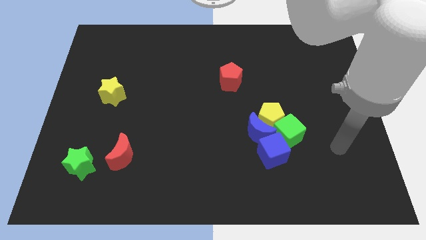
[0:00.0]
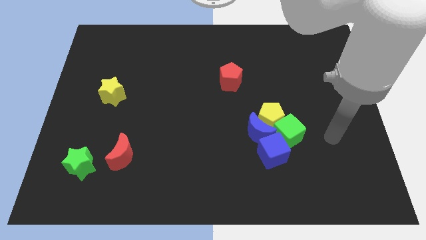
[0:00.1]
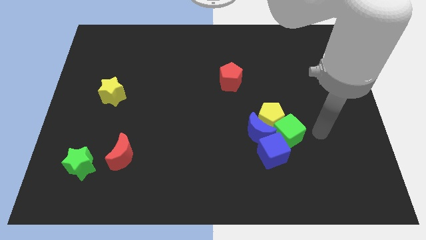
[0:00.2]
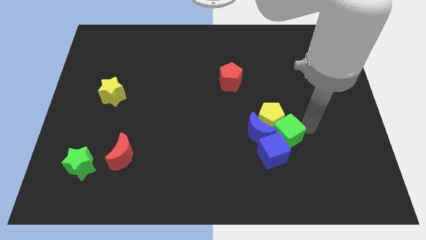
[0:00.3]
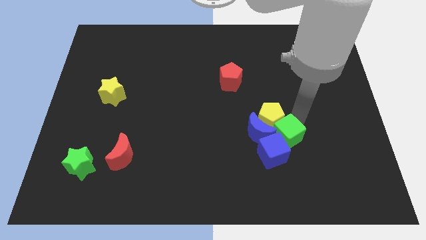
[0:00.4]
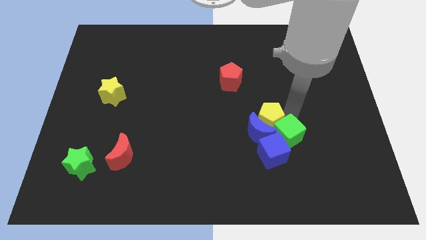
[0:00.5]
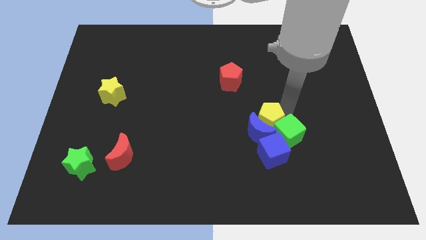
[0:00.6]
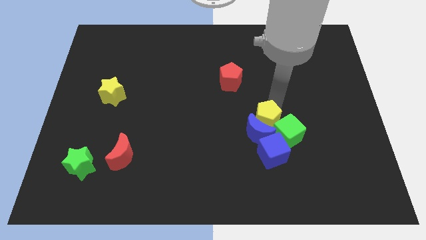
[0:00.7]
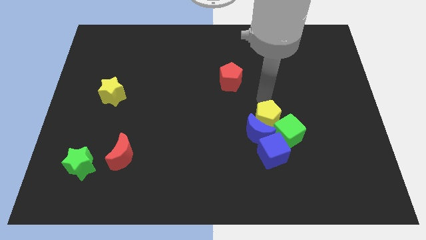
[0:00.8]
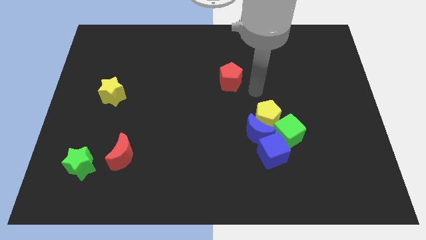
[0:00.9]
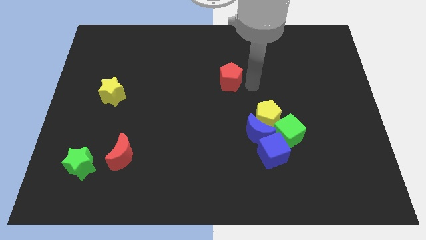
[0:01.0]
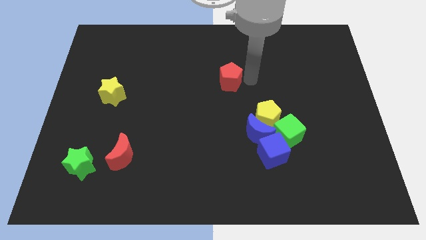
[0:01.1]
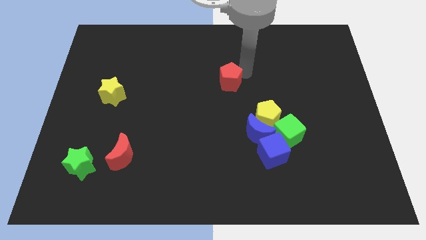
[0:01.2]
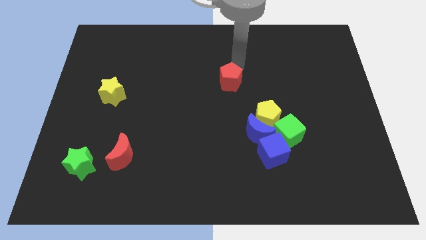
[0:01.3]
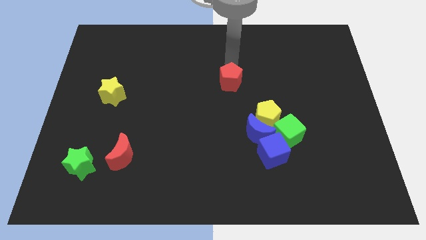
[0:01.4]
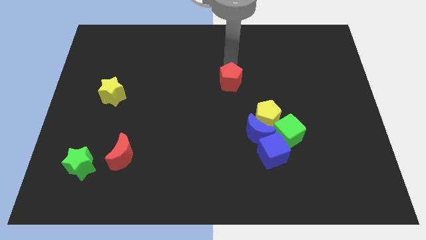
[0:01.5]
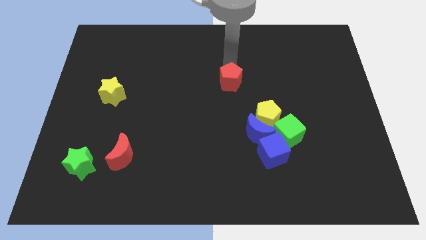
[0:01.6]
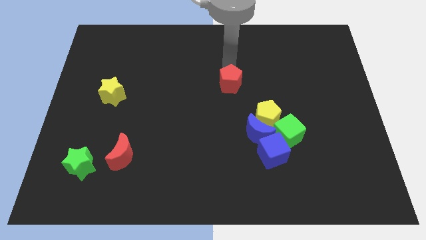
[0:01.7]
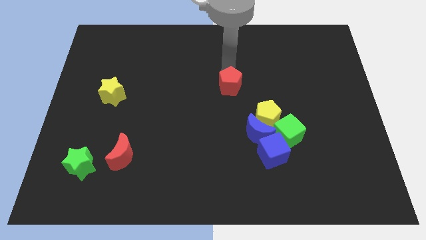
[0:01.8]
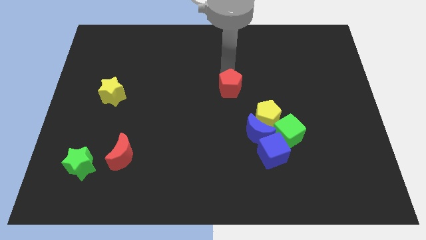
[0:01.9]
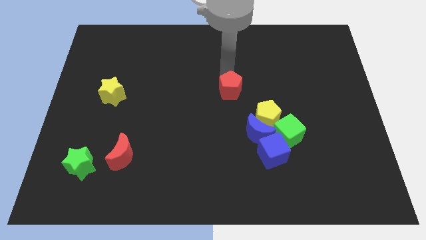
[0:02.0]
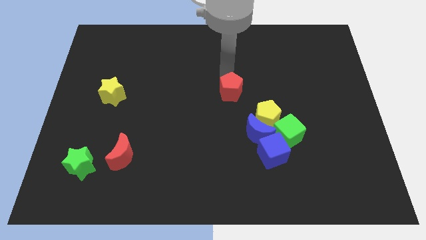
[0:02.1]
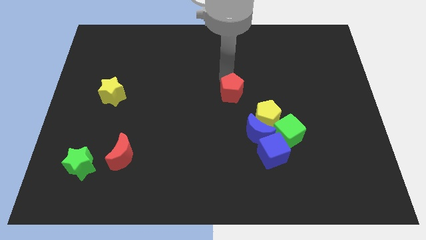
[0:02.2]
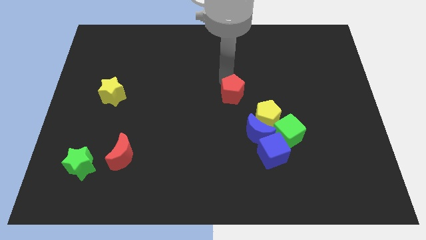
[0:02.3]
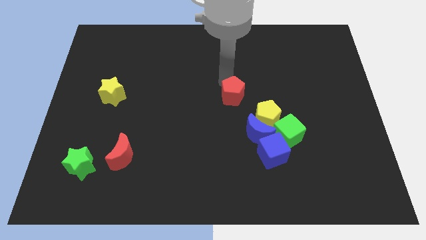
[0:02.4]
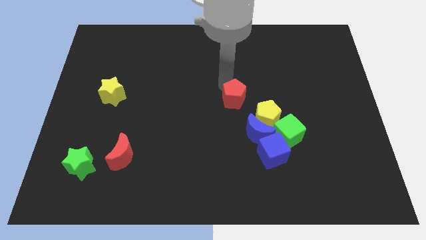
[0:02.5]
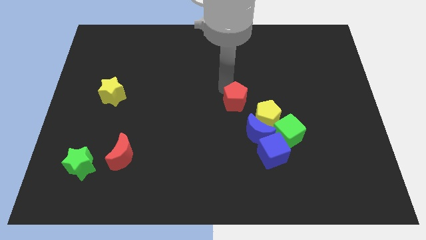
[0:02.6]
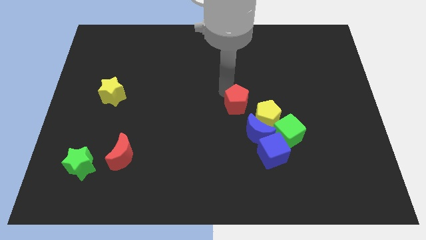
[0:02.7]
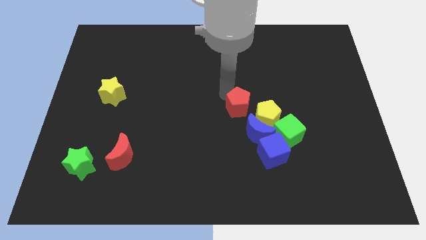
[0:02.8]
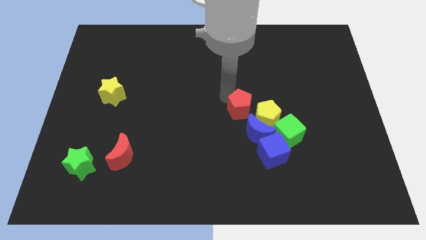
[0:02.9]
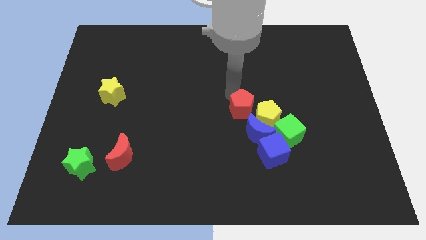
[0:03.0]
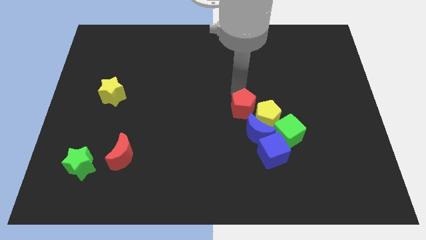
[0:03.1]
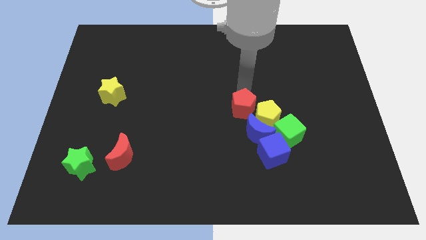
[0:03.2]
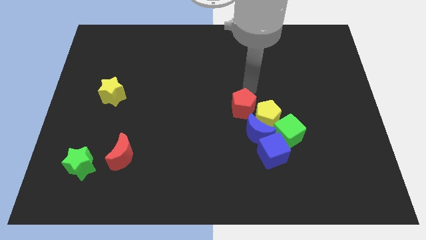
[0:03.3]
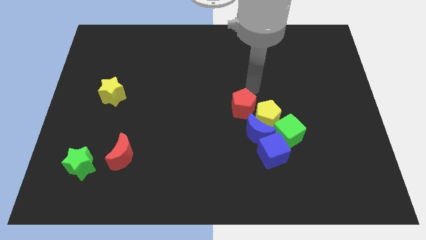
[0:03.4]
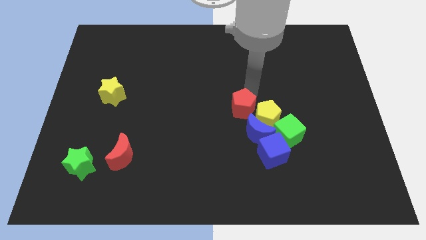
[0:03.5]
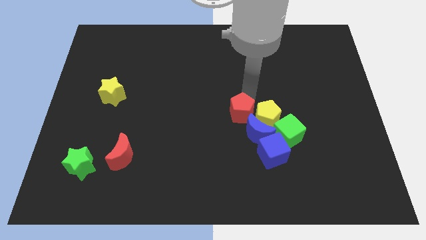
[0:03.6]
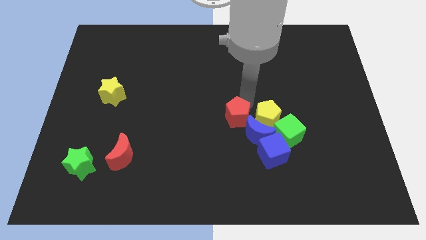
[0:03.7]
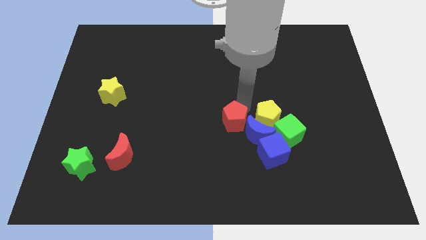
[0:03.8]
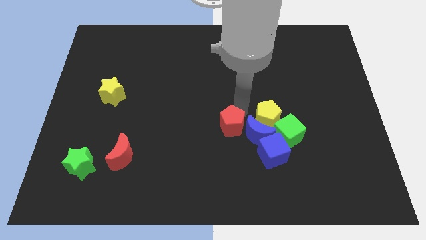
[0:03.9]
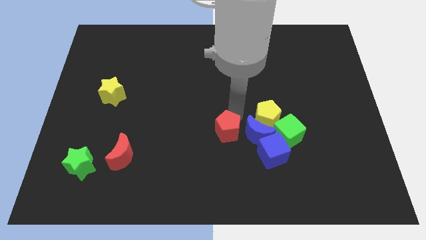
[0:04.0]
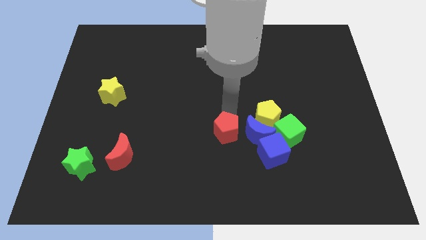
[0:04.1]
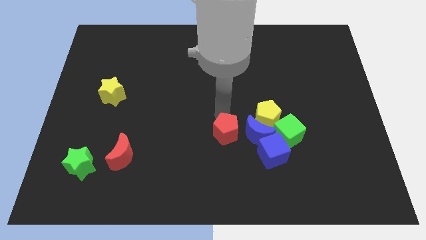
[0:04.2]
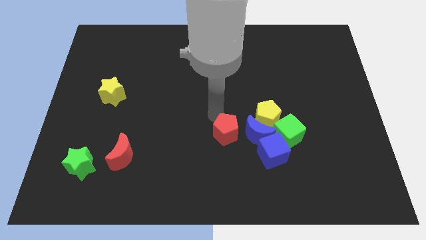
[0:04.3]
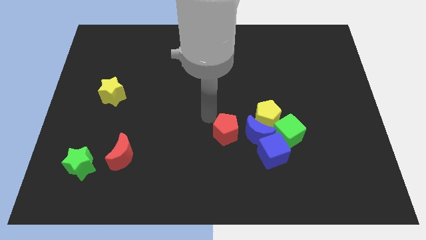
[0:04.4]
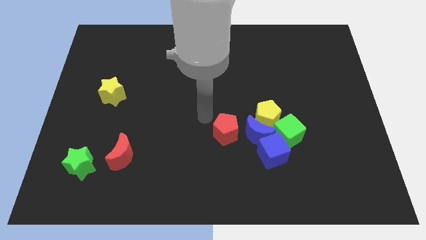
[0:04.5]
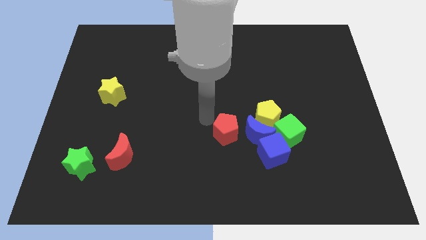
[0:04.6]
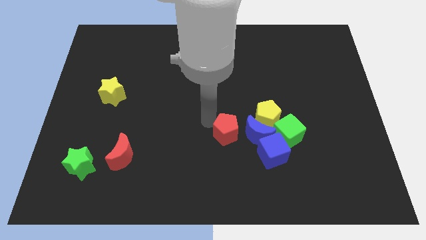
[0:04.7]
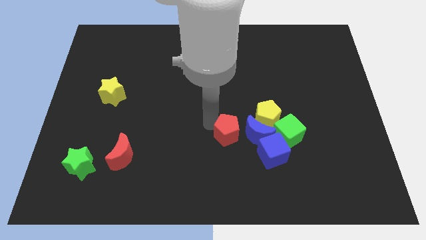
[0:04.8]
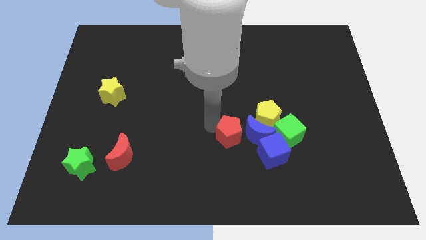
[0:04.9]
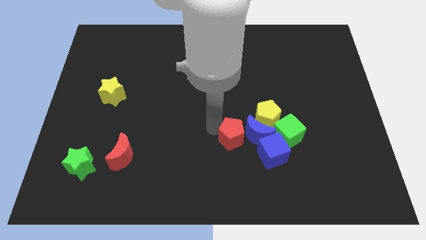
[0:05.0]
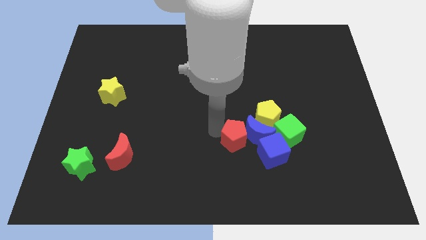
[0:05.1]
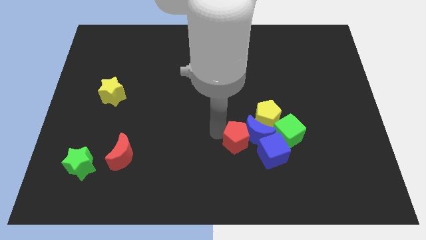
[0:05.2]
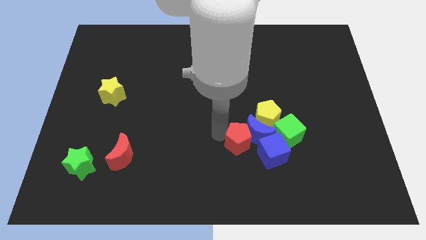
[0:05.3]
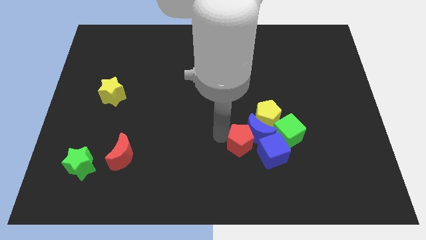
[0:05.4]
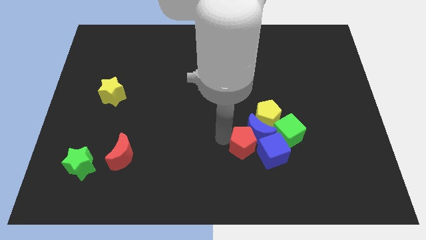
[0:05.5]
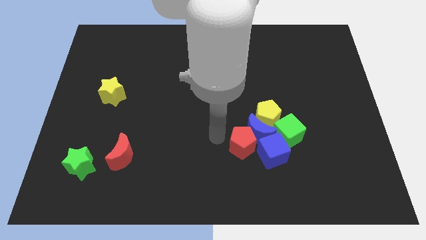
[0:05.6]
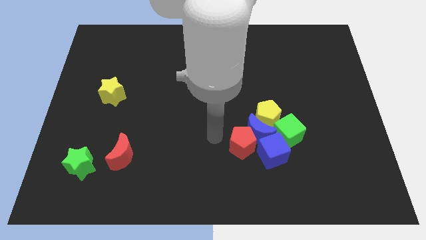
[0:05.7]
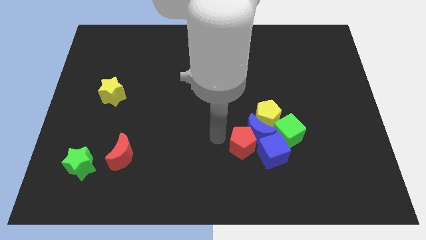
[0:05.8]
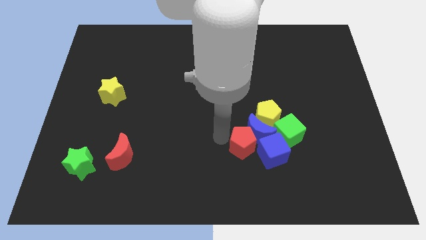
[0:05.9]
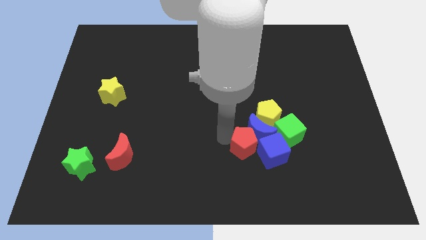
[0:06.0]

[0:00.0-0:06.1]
push the red pentagon to the blue cube

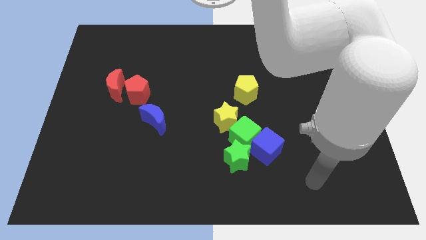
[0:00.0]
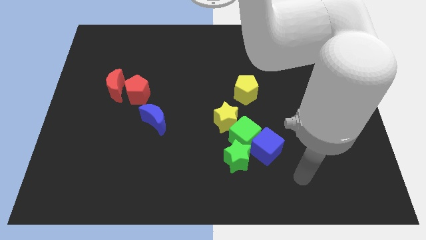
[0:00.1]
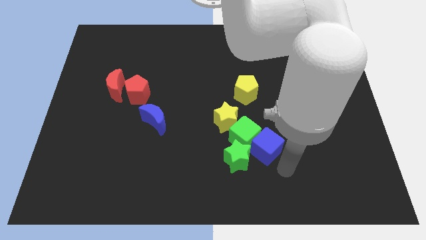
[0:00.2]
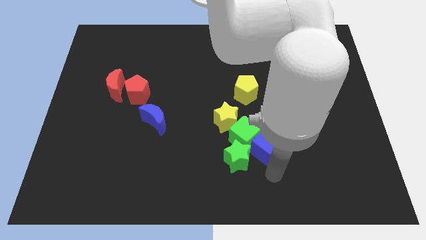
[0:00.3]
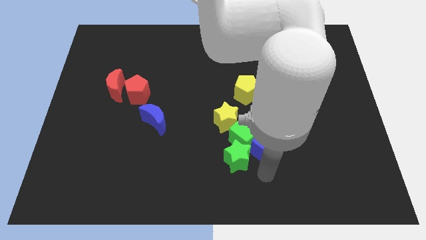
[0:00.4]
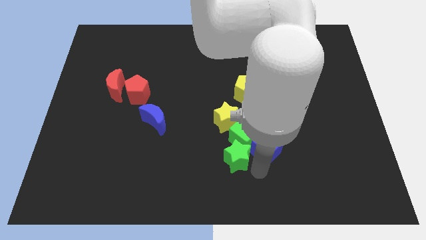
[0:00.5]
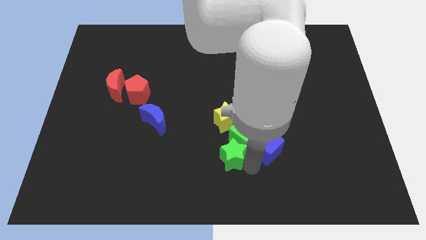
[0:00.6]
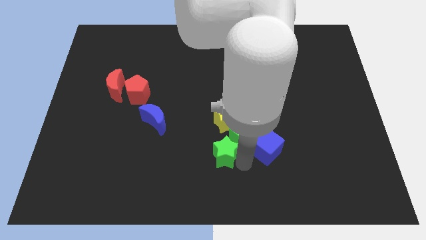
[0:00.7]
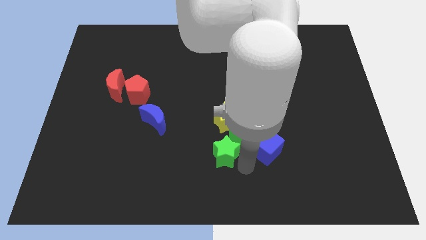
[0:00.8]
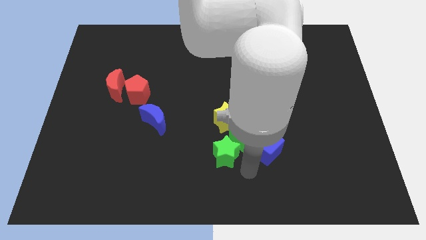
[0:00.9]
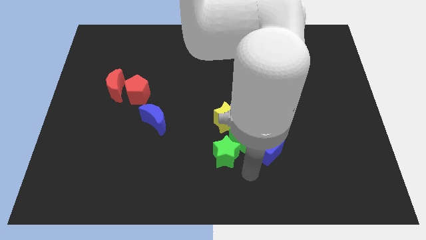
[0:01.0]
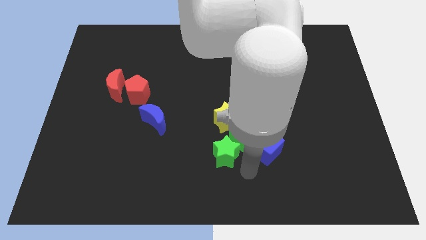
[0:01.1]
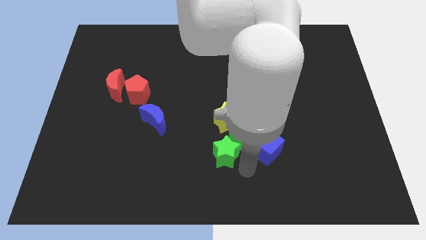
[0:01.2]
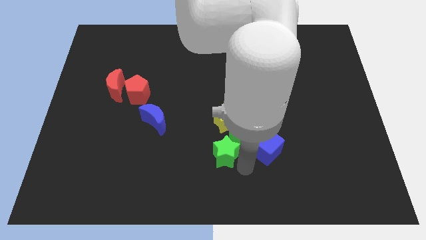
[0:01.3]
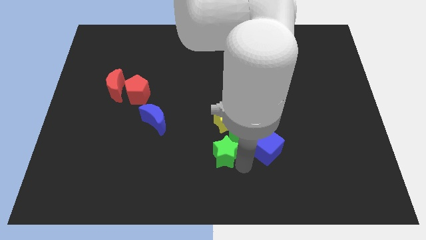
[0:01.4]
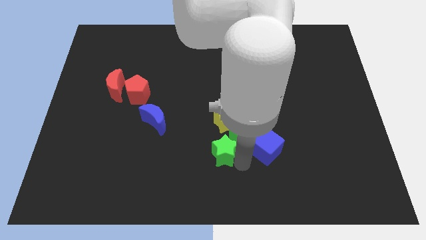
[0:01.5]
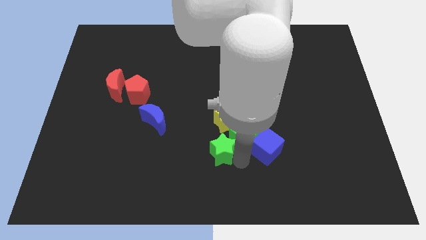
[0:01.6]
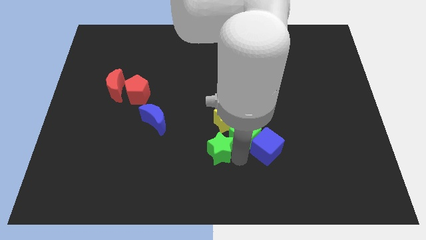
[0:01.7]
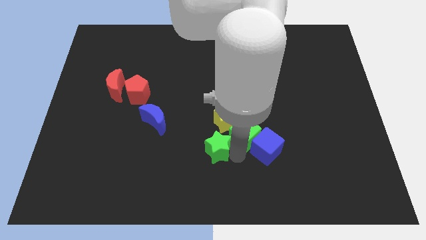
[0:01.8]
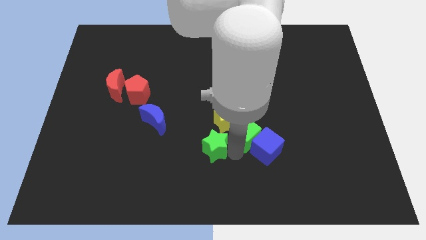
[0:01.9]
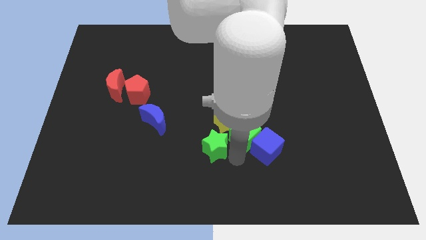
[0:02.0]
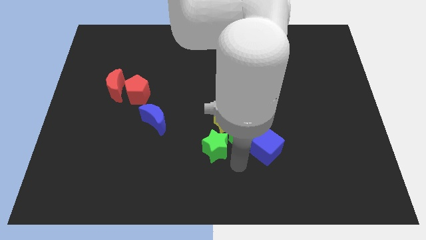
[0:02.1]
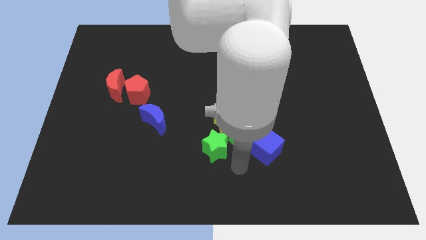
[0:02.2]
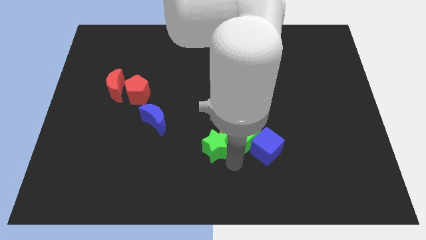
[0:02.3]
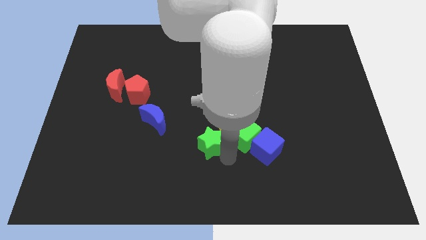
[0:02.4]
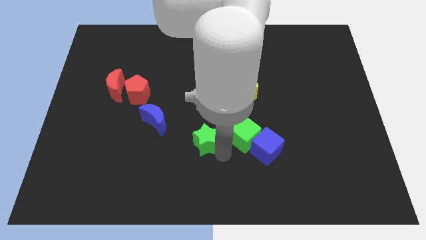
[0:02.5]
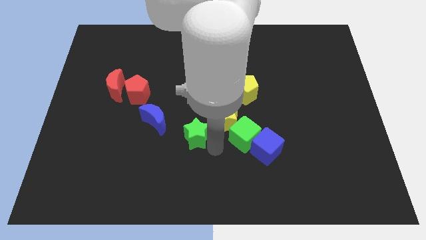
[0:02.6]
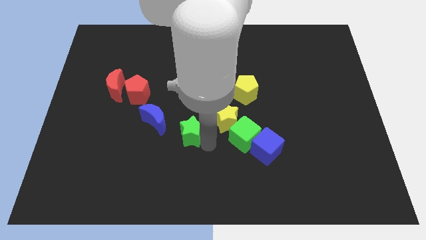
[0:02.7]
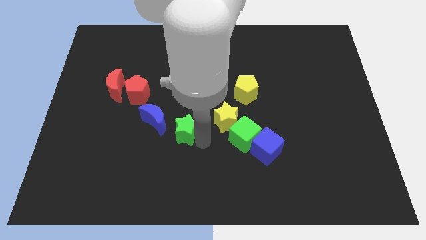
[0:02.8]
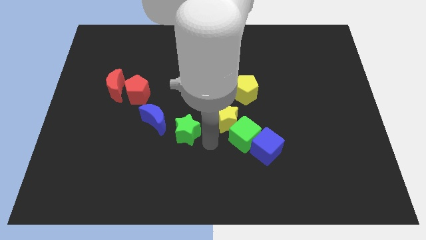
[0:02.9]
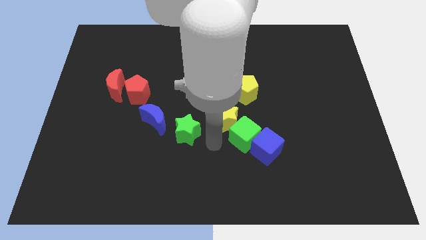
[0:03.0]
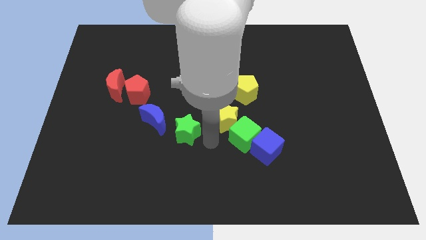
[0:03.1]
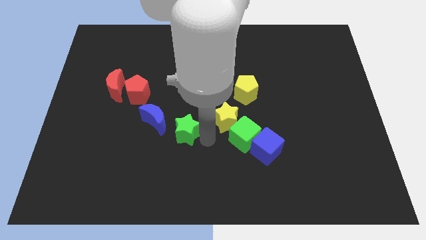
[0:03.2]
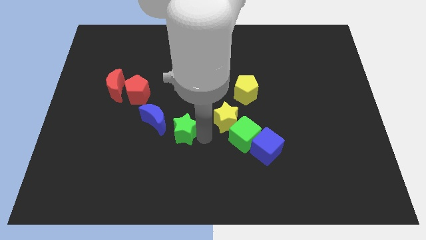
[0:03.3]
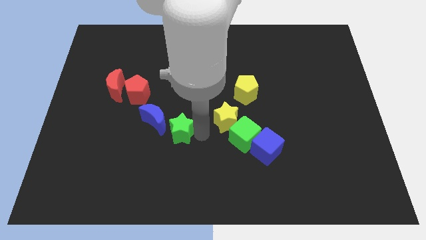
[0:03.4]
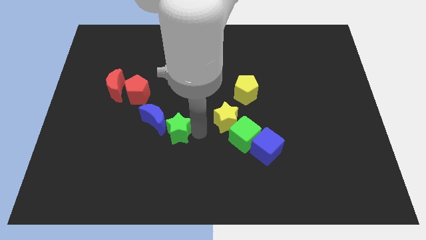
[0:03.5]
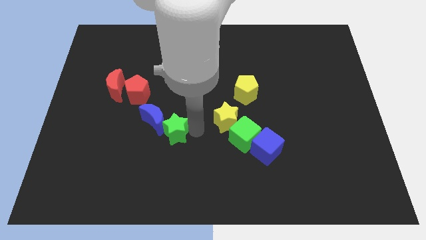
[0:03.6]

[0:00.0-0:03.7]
push the green star to the blue moon
